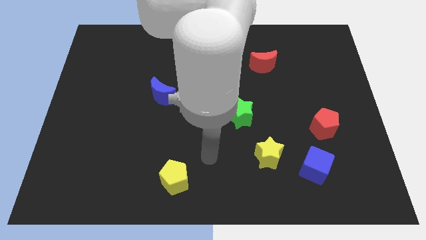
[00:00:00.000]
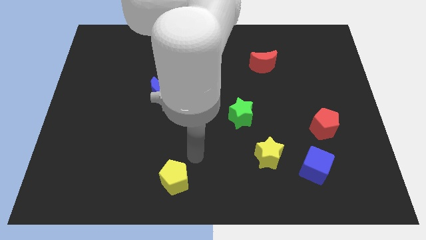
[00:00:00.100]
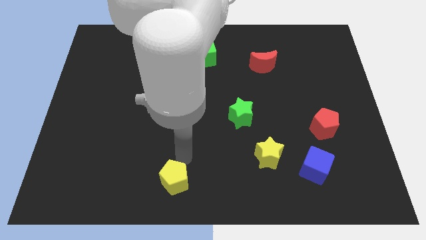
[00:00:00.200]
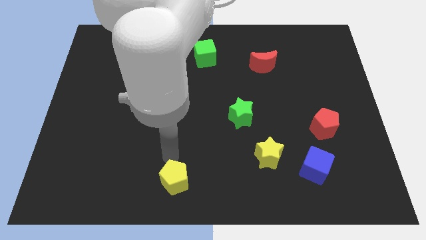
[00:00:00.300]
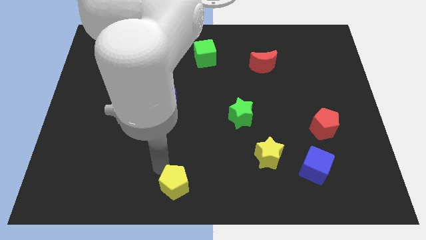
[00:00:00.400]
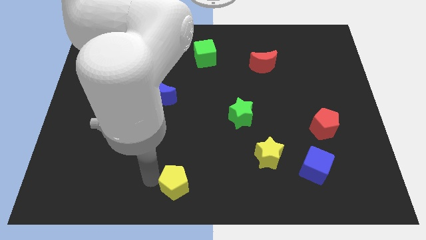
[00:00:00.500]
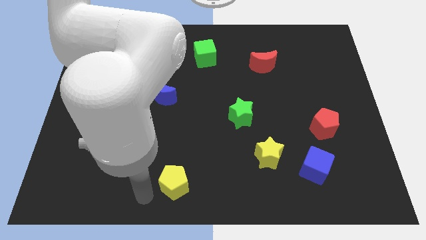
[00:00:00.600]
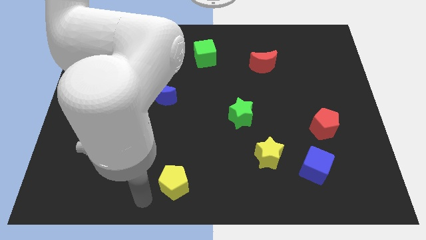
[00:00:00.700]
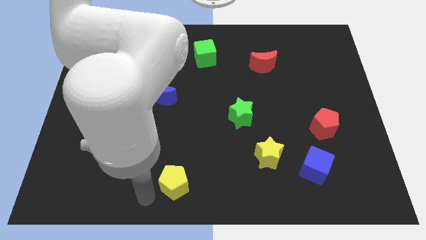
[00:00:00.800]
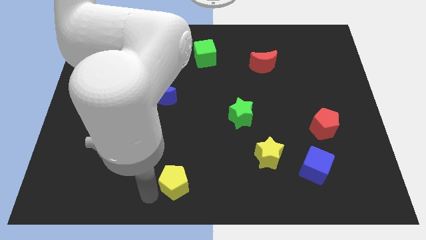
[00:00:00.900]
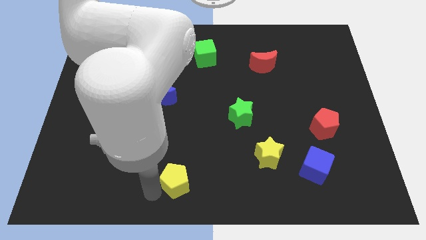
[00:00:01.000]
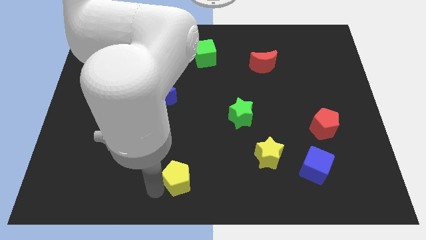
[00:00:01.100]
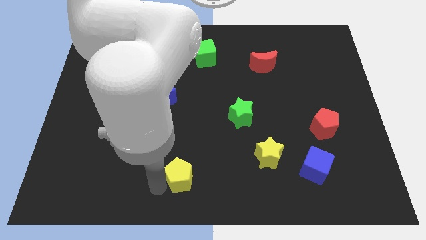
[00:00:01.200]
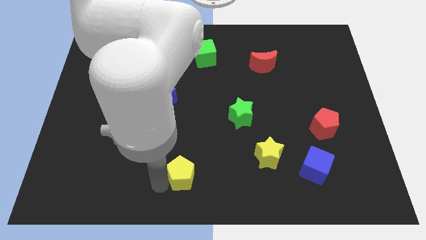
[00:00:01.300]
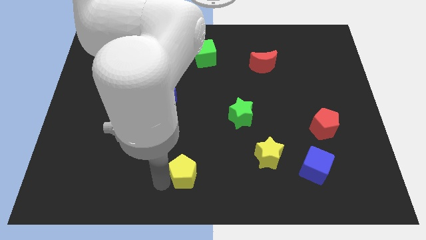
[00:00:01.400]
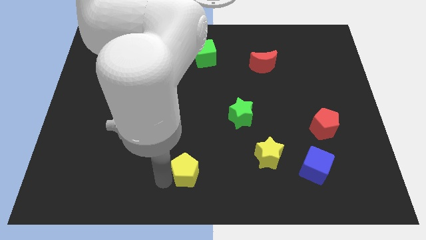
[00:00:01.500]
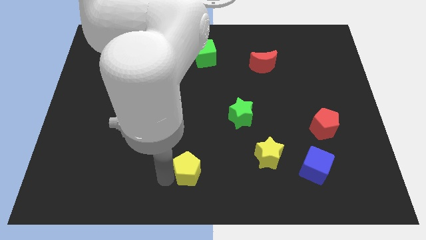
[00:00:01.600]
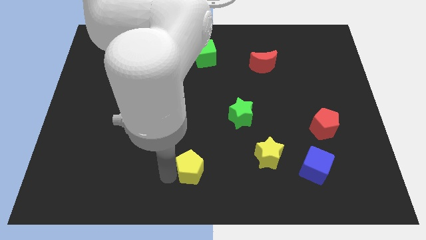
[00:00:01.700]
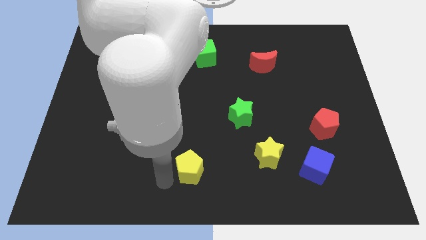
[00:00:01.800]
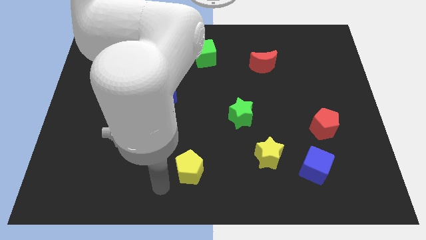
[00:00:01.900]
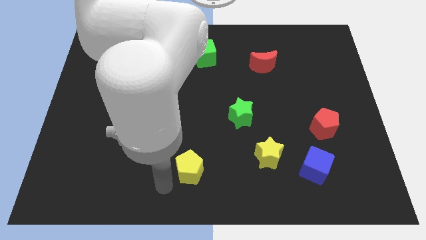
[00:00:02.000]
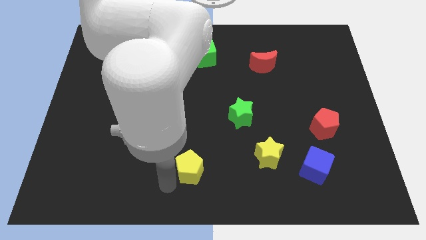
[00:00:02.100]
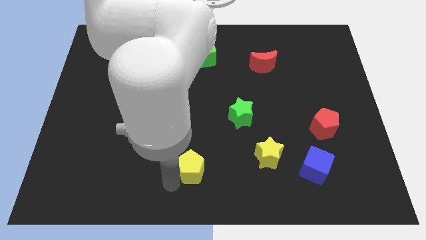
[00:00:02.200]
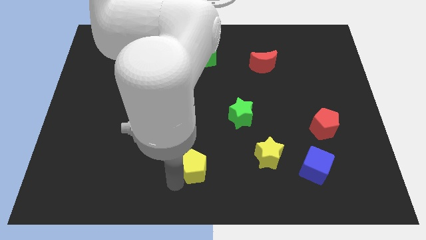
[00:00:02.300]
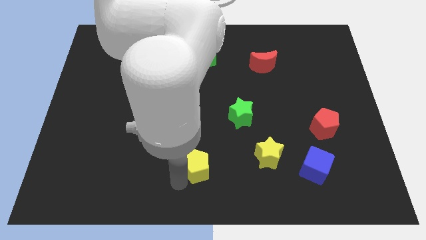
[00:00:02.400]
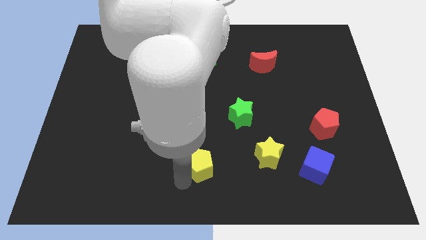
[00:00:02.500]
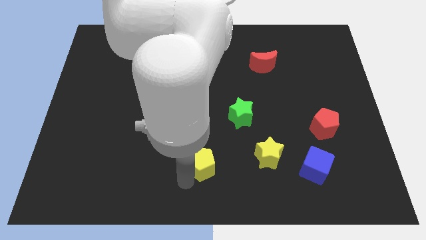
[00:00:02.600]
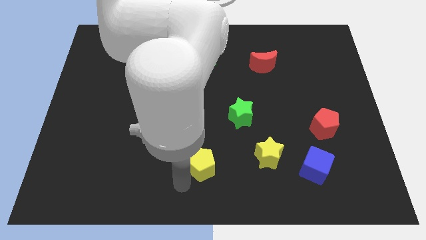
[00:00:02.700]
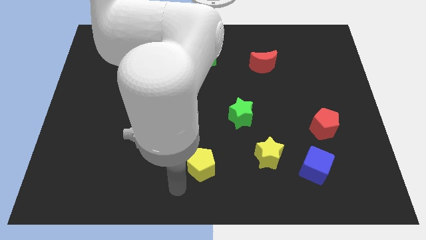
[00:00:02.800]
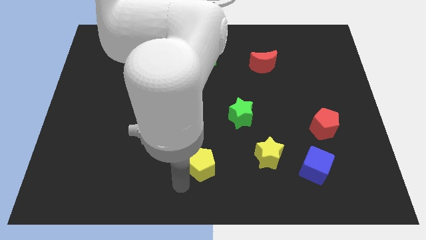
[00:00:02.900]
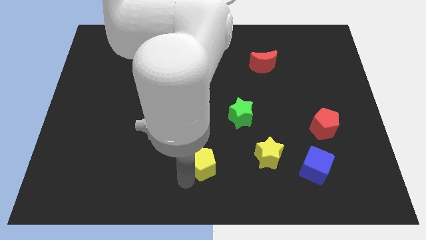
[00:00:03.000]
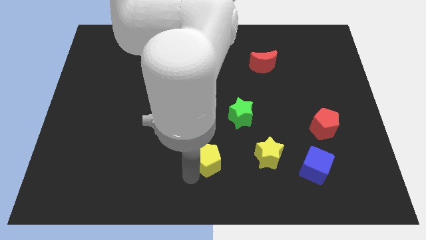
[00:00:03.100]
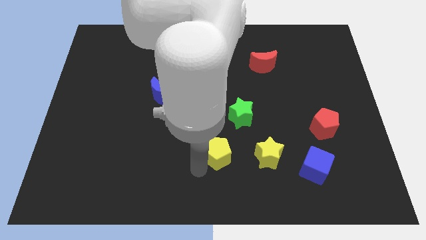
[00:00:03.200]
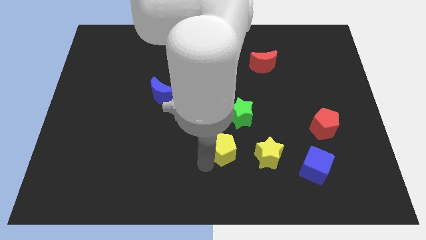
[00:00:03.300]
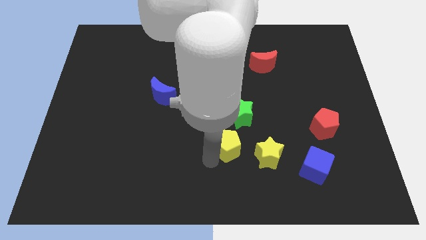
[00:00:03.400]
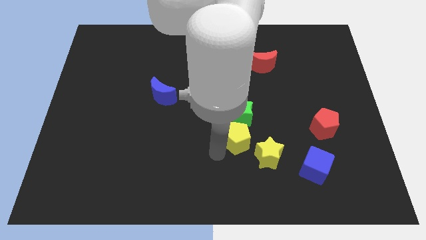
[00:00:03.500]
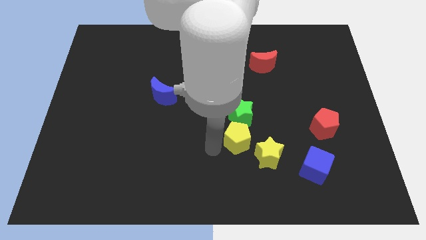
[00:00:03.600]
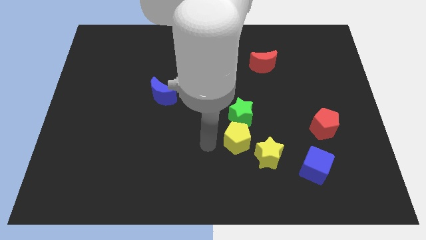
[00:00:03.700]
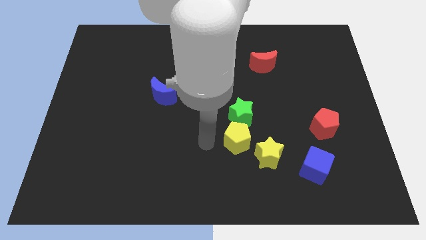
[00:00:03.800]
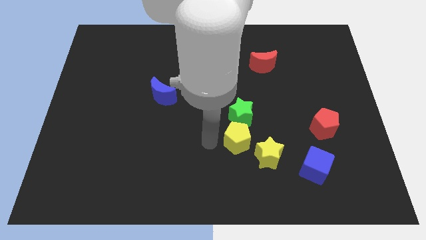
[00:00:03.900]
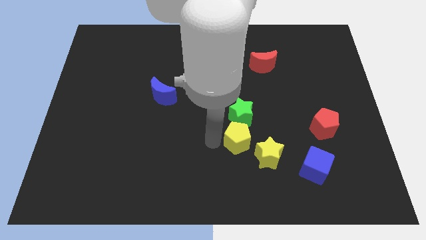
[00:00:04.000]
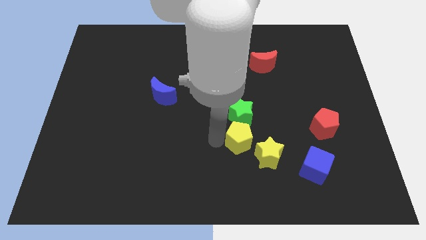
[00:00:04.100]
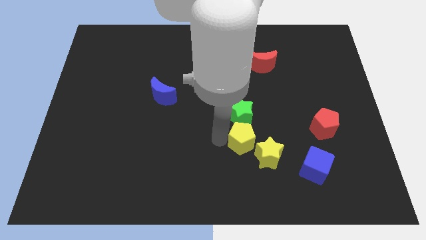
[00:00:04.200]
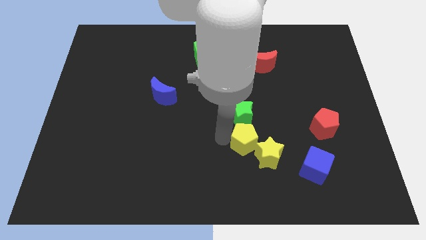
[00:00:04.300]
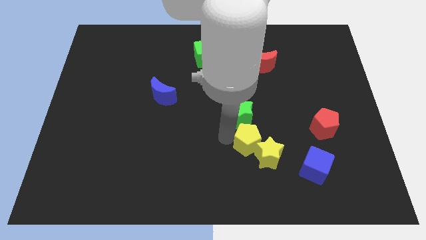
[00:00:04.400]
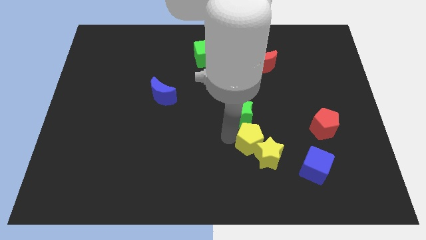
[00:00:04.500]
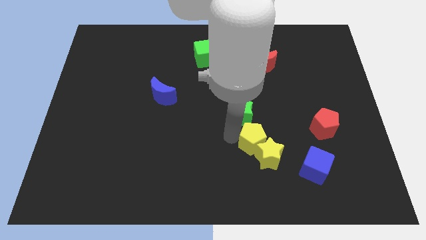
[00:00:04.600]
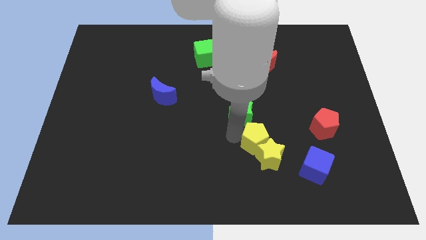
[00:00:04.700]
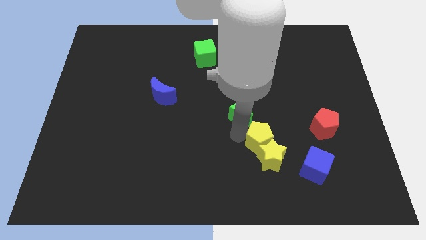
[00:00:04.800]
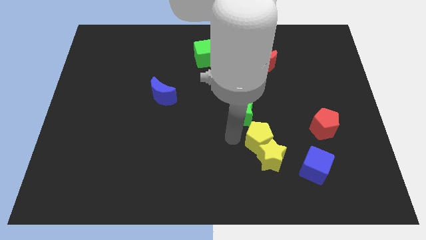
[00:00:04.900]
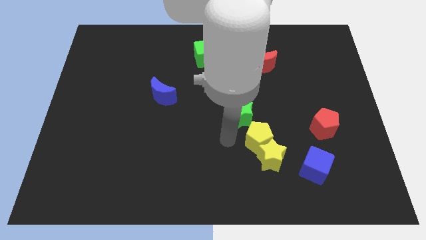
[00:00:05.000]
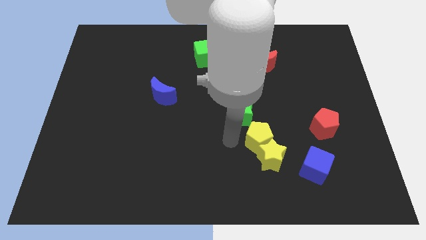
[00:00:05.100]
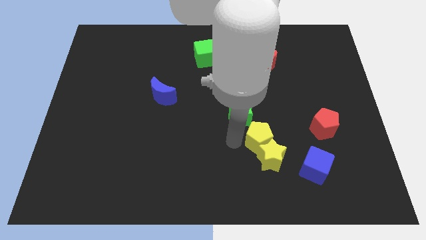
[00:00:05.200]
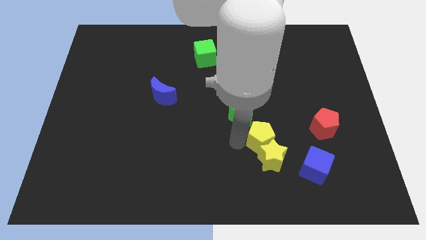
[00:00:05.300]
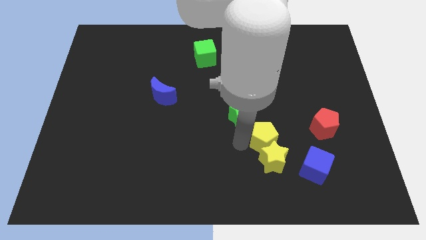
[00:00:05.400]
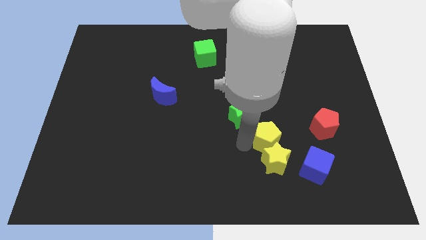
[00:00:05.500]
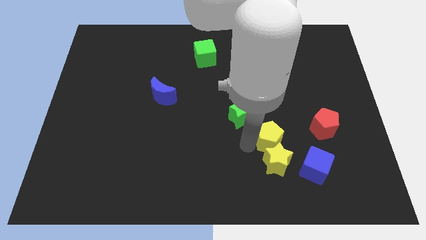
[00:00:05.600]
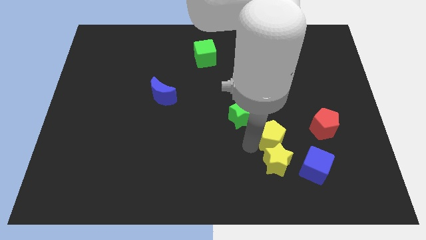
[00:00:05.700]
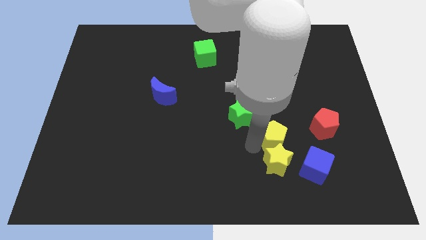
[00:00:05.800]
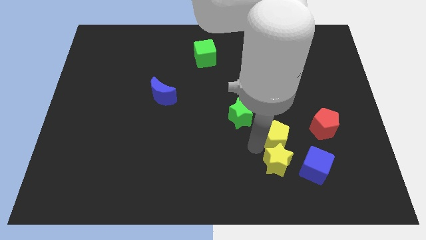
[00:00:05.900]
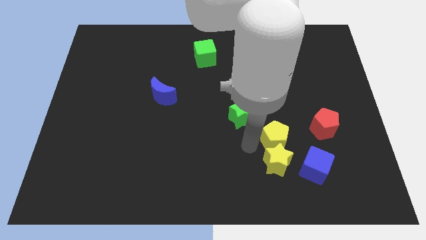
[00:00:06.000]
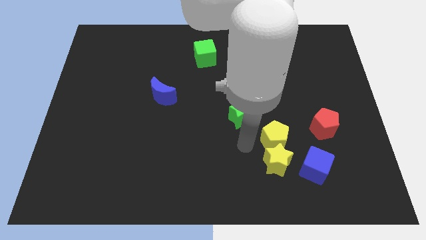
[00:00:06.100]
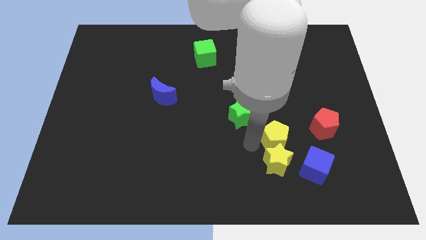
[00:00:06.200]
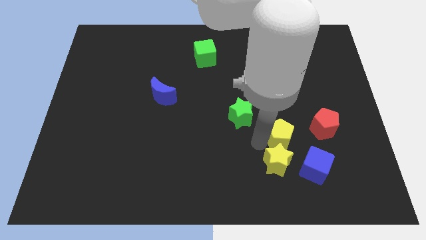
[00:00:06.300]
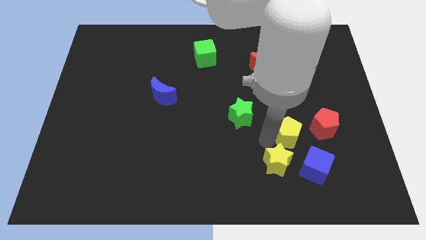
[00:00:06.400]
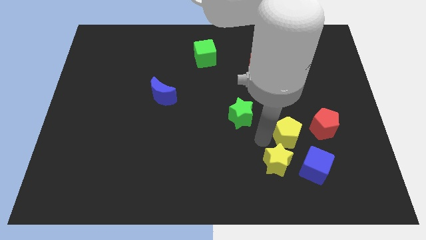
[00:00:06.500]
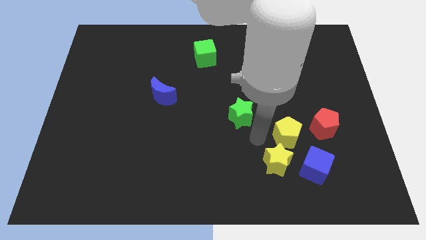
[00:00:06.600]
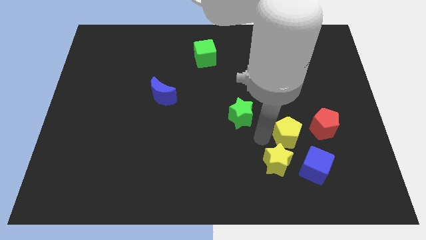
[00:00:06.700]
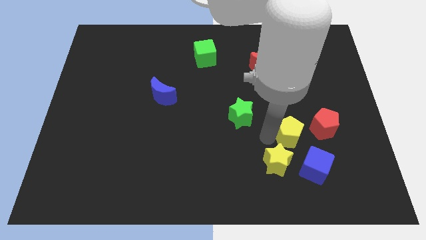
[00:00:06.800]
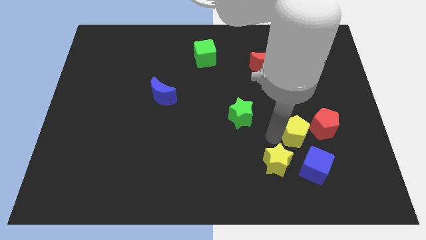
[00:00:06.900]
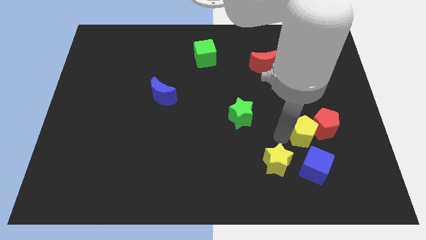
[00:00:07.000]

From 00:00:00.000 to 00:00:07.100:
slide the yellow pentagon close to the red pentagon
